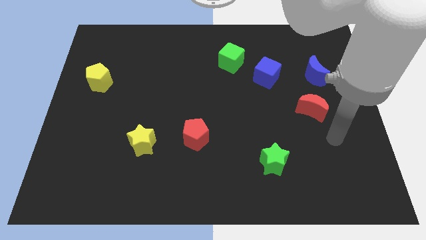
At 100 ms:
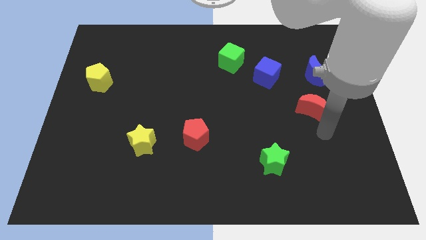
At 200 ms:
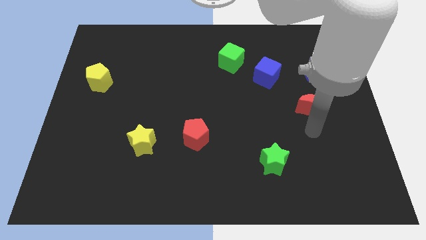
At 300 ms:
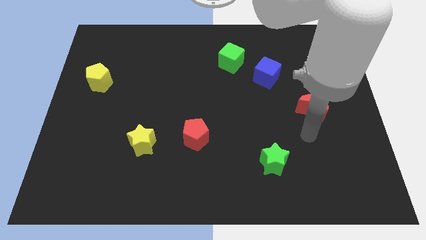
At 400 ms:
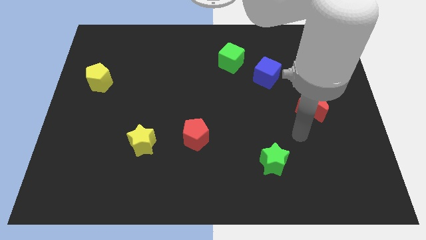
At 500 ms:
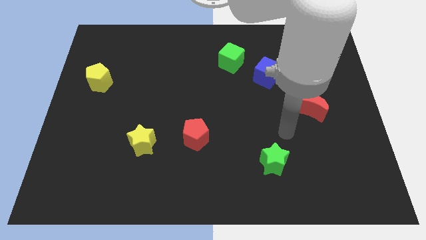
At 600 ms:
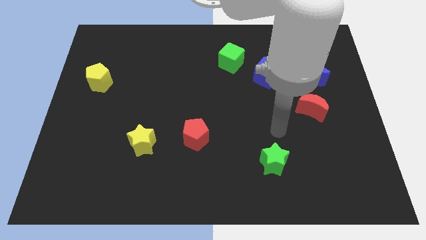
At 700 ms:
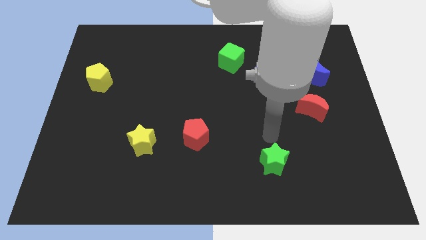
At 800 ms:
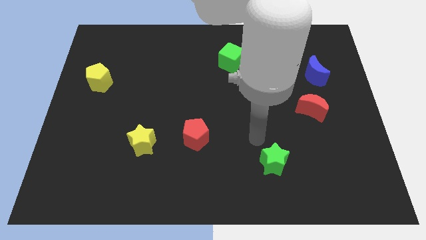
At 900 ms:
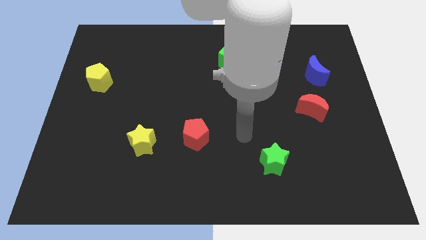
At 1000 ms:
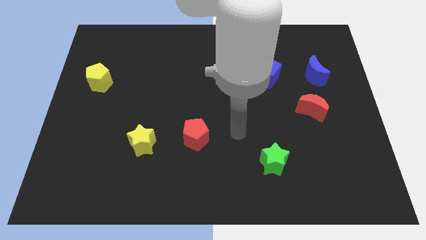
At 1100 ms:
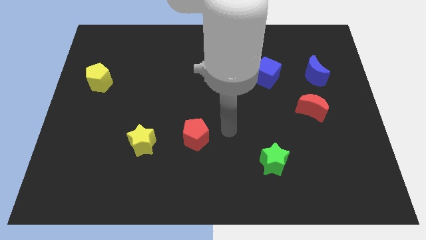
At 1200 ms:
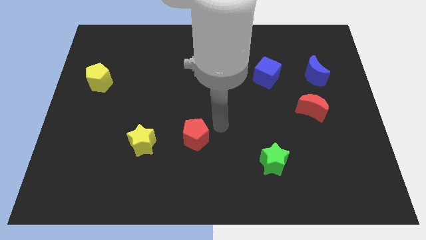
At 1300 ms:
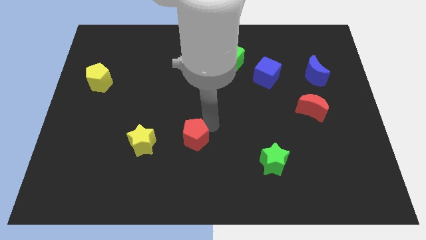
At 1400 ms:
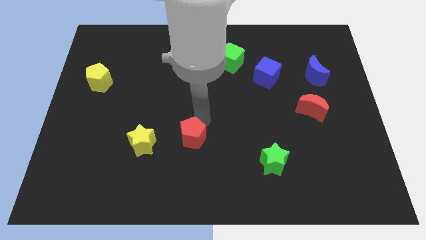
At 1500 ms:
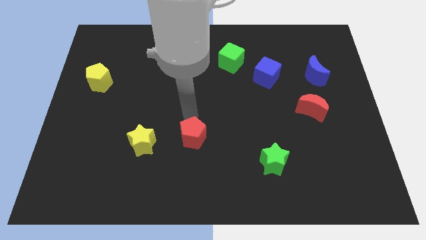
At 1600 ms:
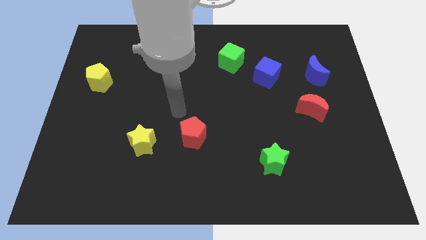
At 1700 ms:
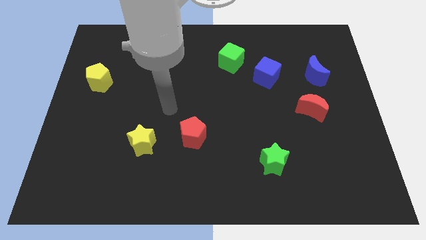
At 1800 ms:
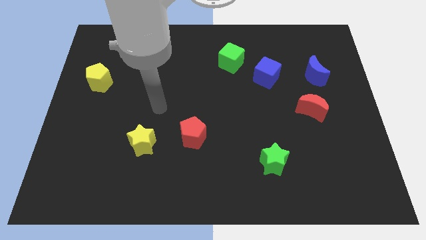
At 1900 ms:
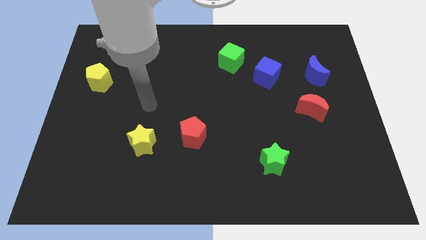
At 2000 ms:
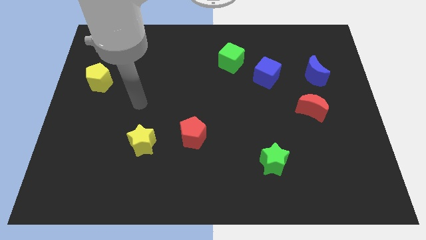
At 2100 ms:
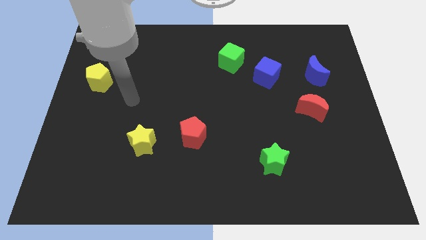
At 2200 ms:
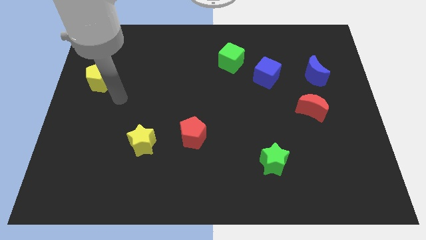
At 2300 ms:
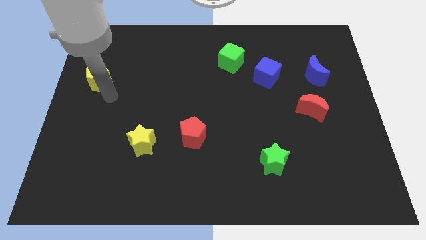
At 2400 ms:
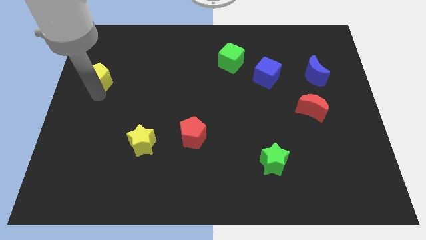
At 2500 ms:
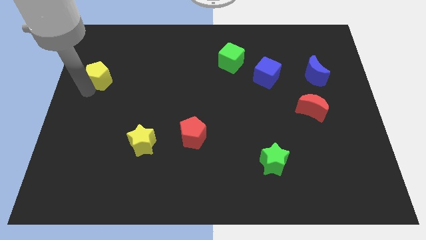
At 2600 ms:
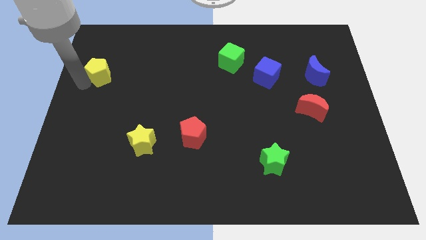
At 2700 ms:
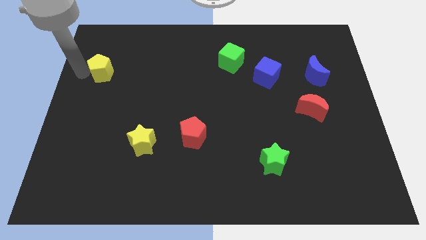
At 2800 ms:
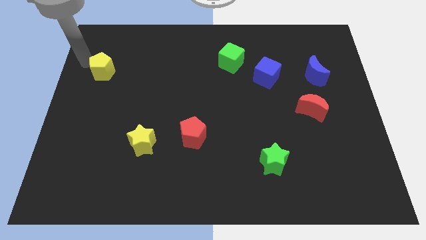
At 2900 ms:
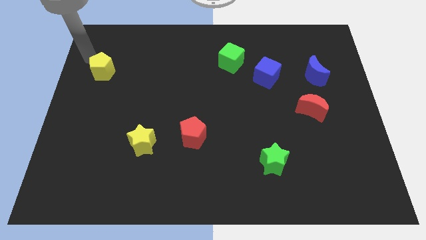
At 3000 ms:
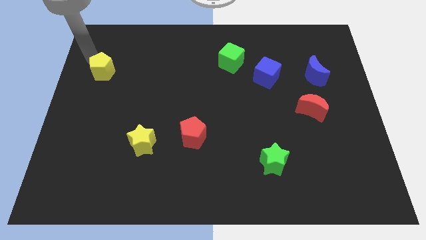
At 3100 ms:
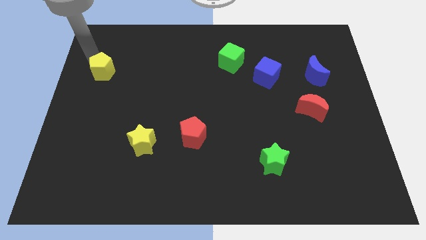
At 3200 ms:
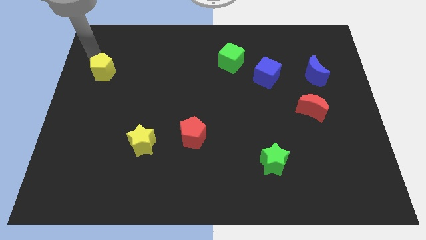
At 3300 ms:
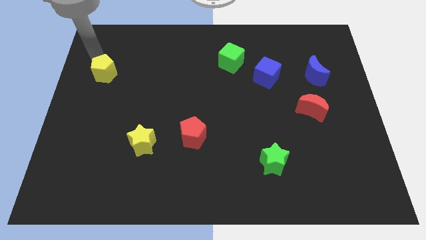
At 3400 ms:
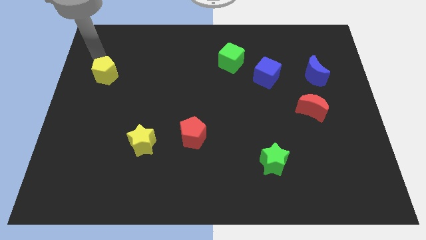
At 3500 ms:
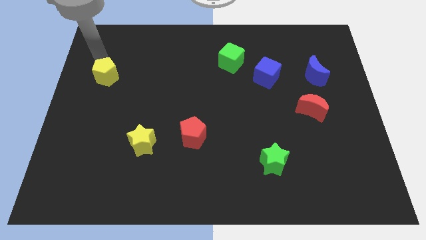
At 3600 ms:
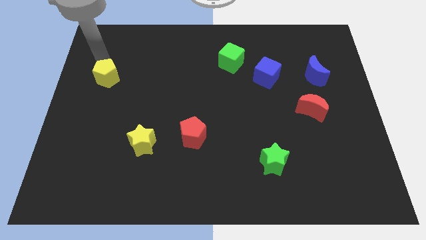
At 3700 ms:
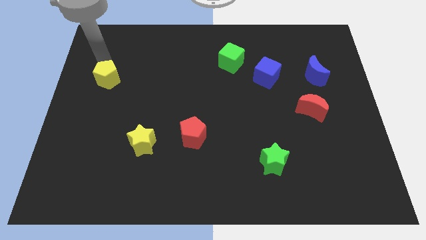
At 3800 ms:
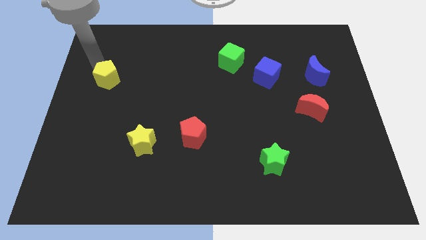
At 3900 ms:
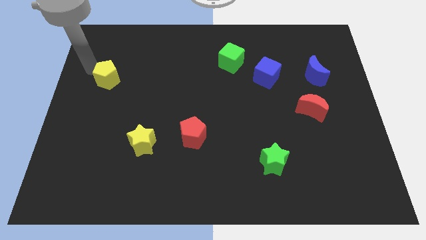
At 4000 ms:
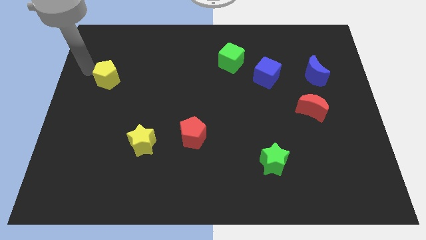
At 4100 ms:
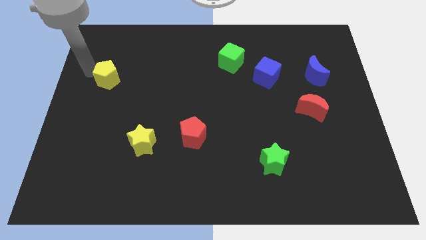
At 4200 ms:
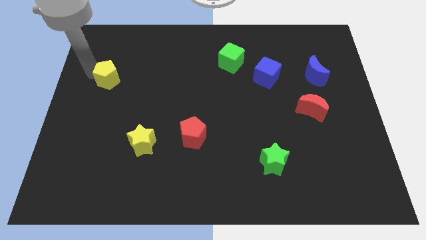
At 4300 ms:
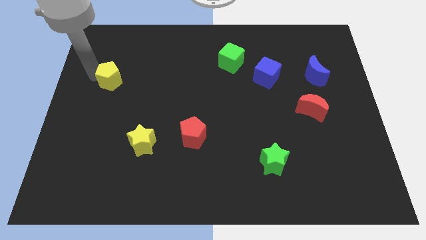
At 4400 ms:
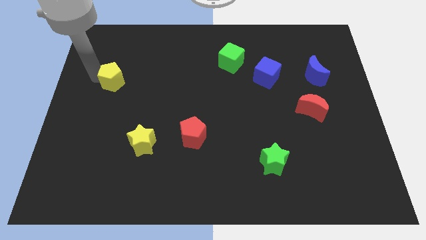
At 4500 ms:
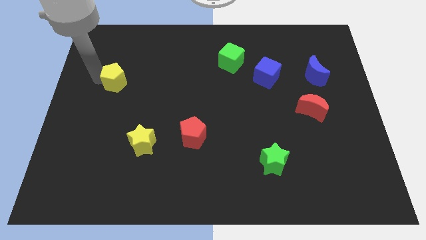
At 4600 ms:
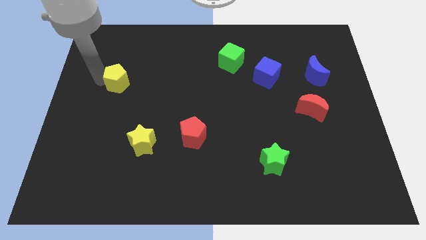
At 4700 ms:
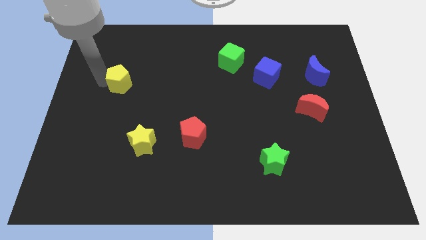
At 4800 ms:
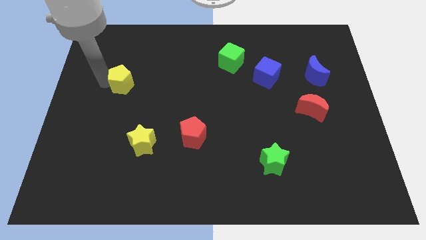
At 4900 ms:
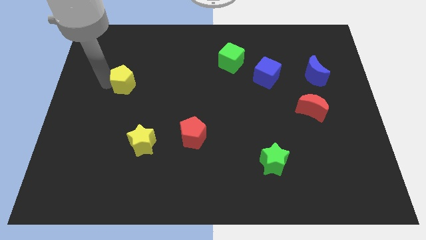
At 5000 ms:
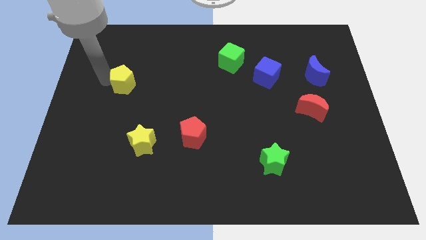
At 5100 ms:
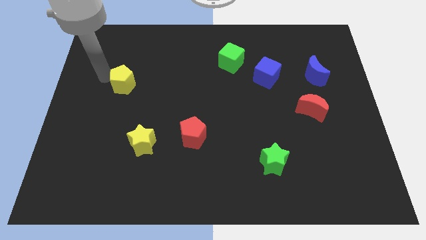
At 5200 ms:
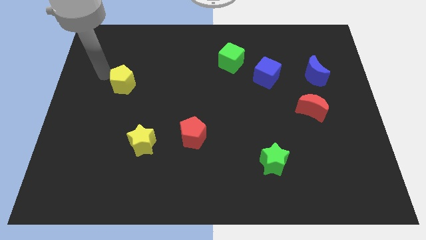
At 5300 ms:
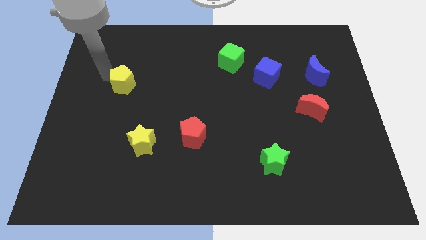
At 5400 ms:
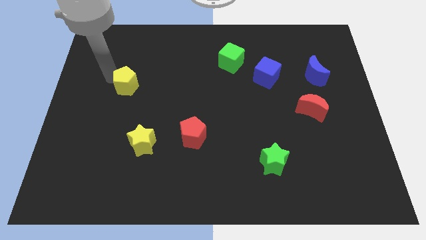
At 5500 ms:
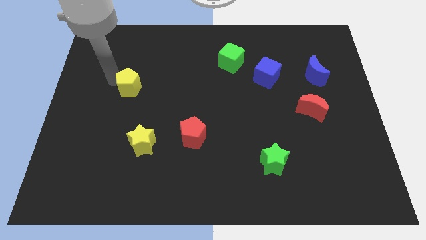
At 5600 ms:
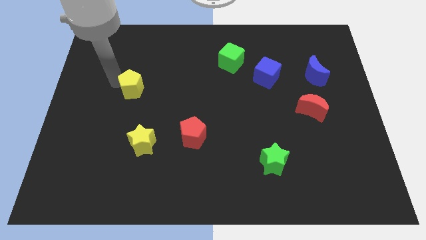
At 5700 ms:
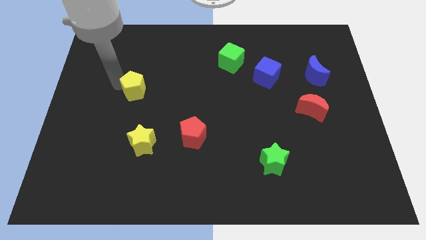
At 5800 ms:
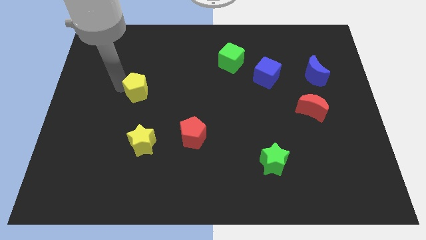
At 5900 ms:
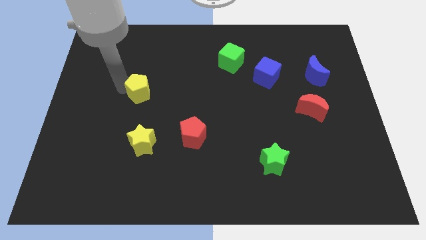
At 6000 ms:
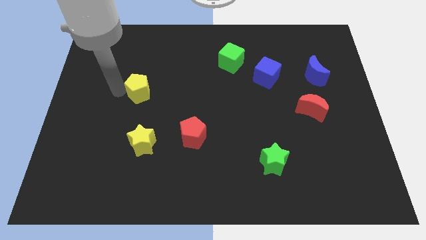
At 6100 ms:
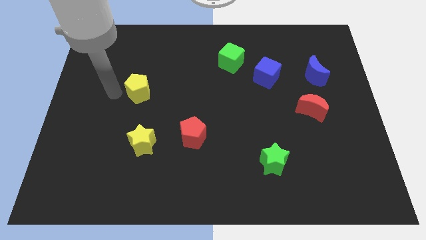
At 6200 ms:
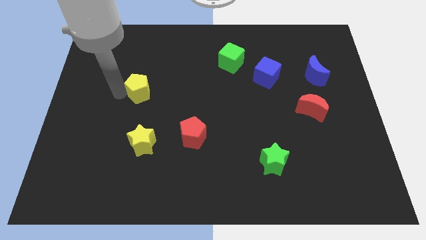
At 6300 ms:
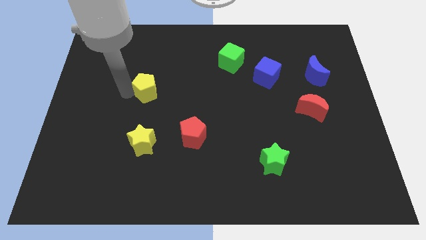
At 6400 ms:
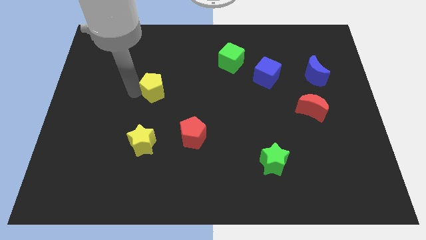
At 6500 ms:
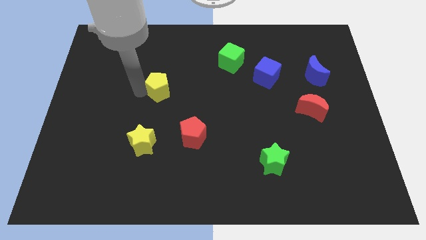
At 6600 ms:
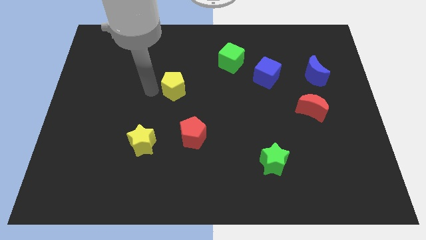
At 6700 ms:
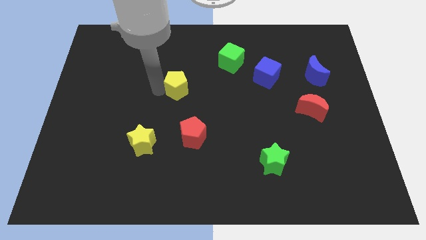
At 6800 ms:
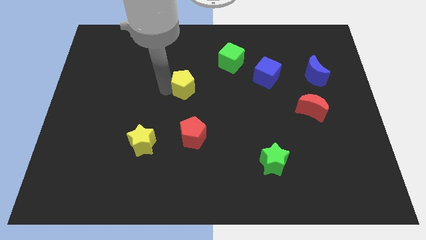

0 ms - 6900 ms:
slide the yellow pentagon right

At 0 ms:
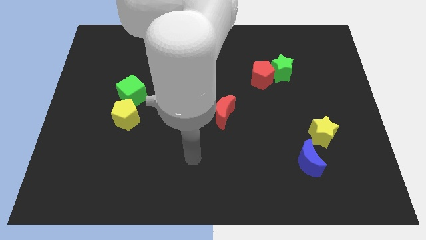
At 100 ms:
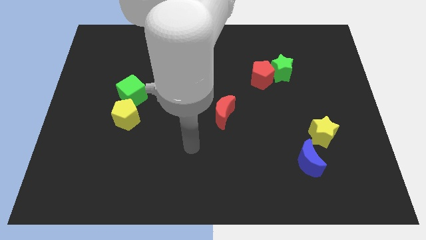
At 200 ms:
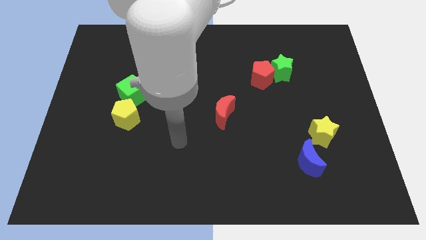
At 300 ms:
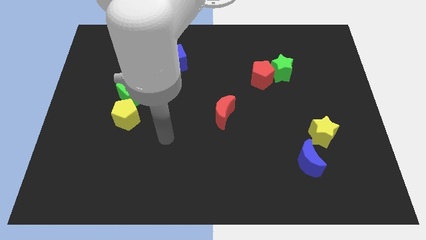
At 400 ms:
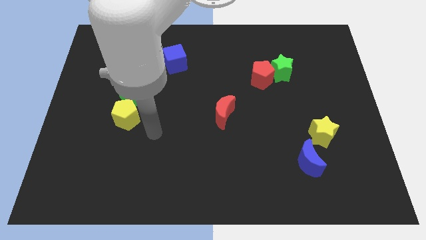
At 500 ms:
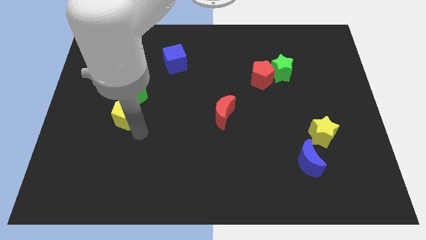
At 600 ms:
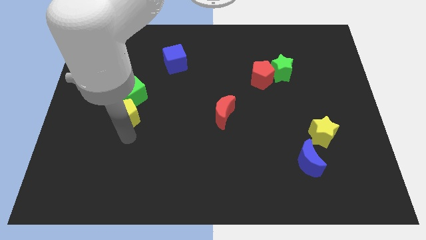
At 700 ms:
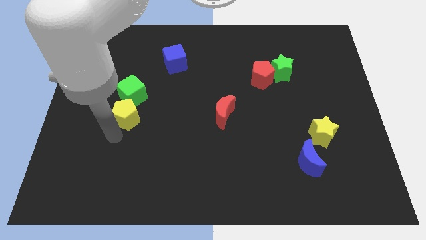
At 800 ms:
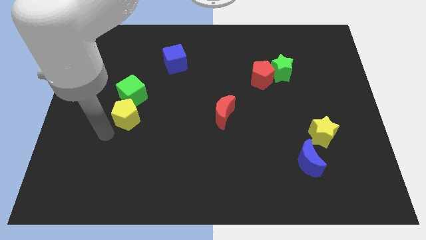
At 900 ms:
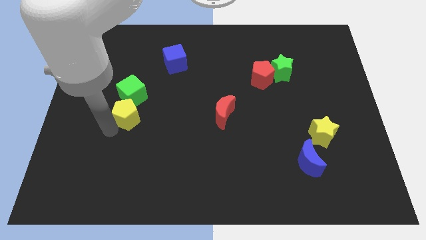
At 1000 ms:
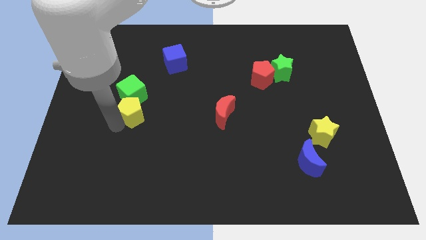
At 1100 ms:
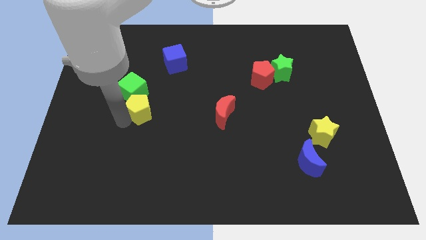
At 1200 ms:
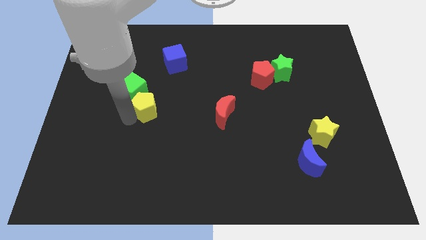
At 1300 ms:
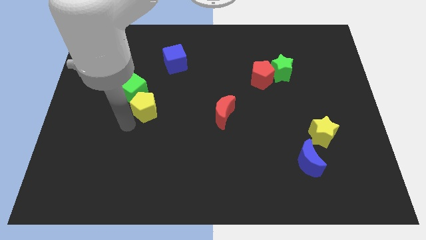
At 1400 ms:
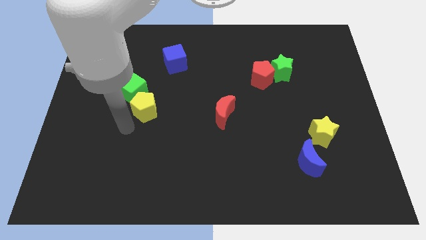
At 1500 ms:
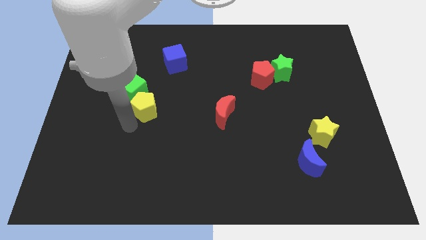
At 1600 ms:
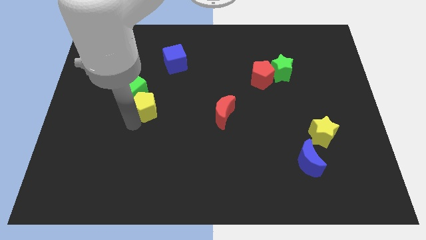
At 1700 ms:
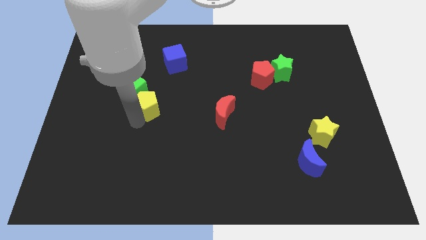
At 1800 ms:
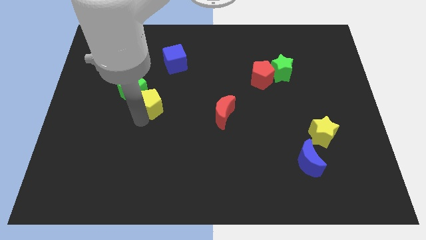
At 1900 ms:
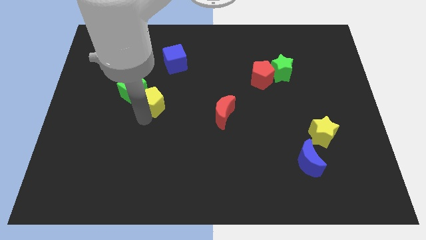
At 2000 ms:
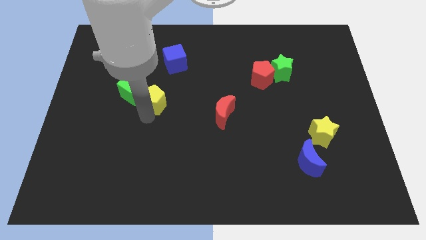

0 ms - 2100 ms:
slightly push the yellow pentagon up and then right
